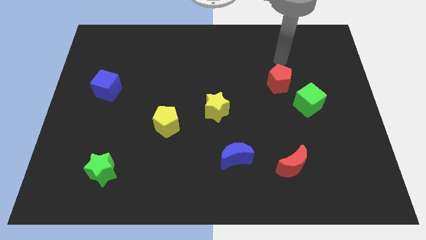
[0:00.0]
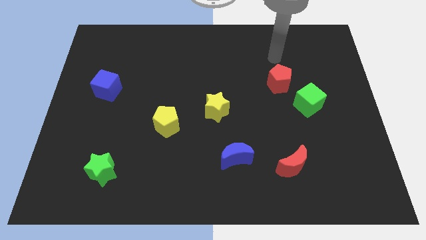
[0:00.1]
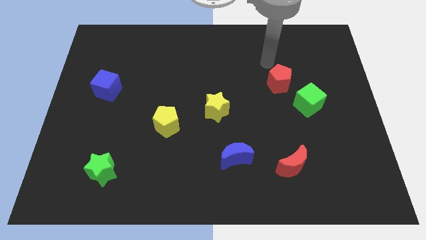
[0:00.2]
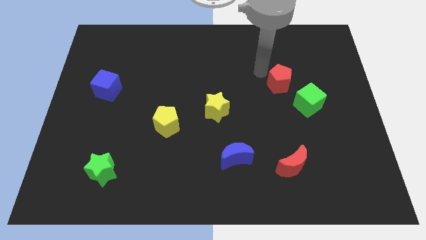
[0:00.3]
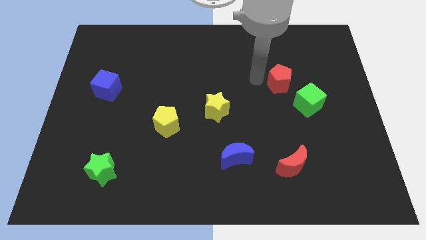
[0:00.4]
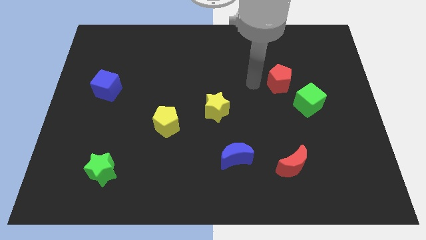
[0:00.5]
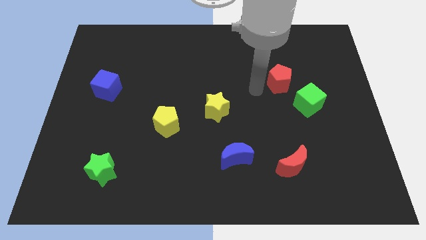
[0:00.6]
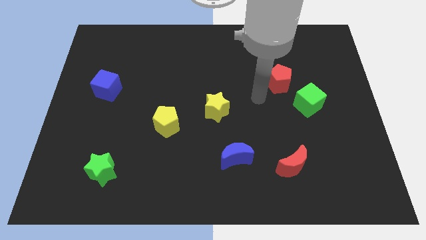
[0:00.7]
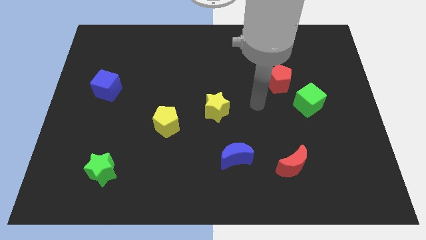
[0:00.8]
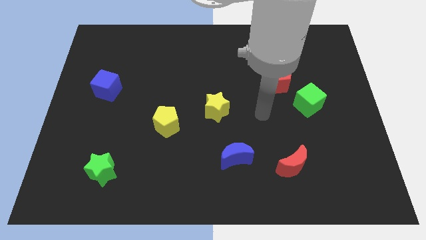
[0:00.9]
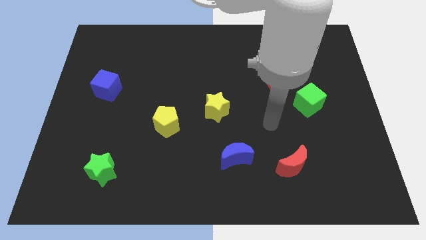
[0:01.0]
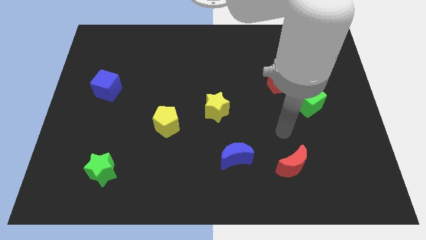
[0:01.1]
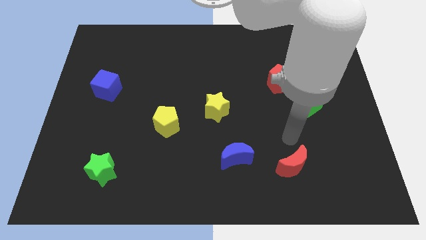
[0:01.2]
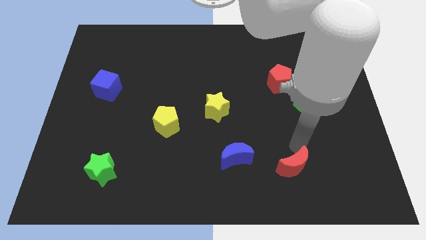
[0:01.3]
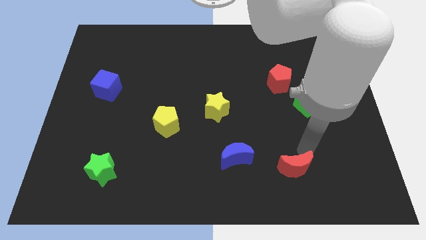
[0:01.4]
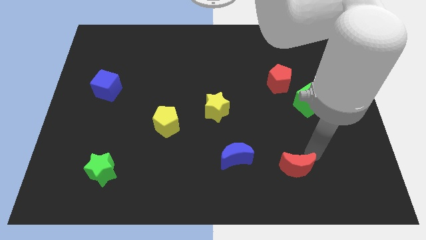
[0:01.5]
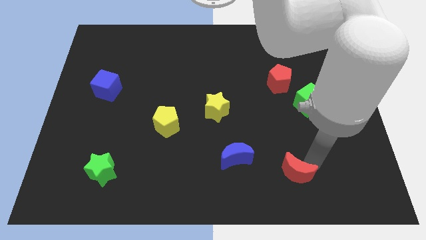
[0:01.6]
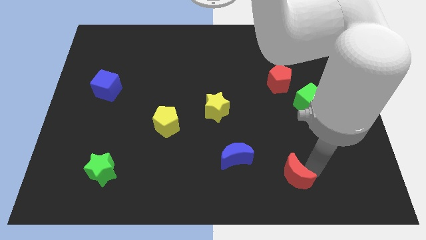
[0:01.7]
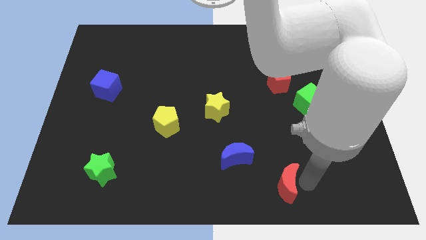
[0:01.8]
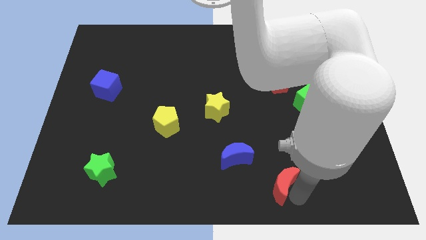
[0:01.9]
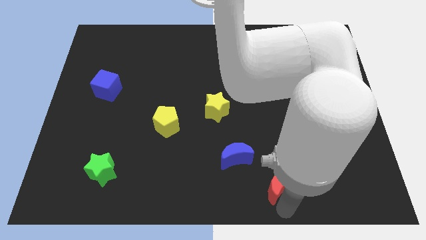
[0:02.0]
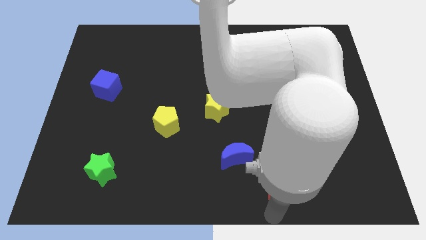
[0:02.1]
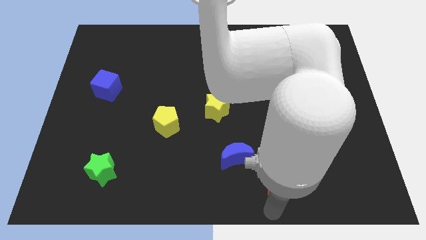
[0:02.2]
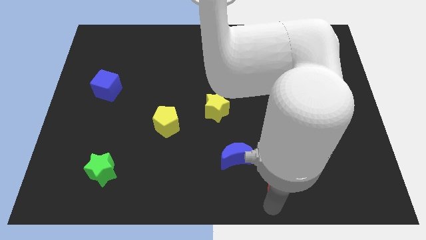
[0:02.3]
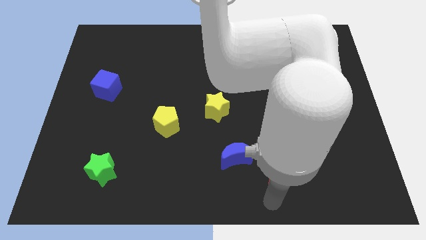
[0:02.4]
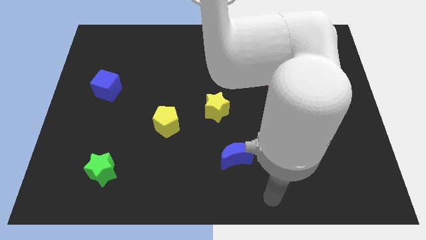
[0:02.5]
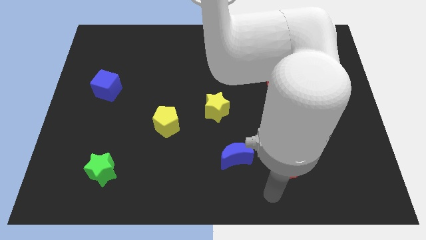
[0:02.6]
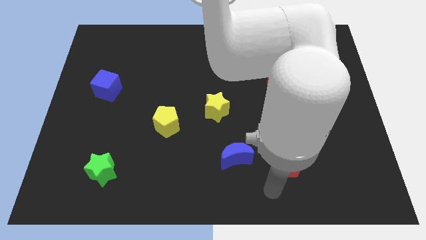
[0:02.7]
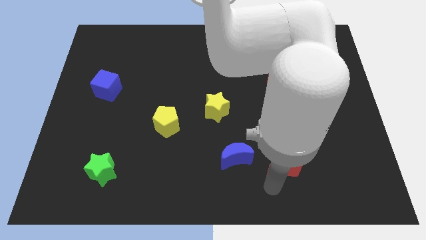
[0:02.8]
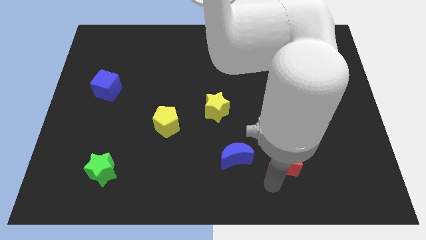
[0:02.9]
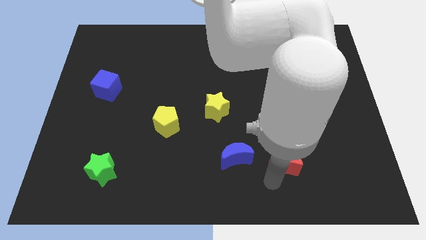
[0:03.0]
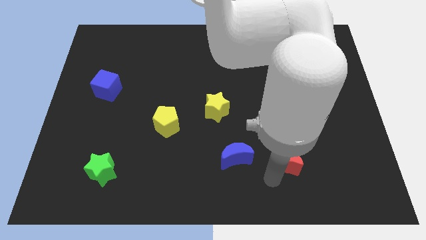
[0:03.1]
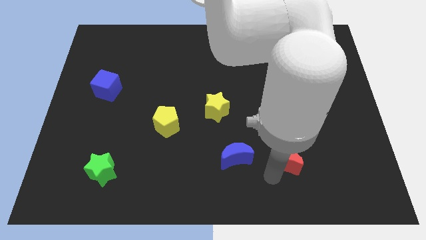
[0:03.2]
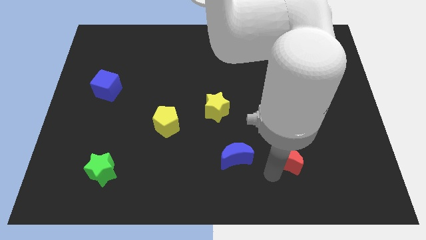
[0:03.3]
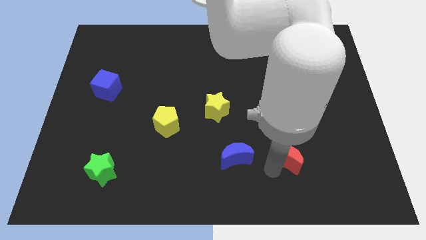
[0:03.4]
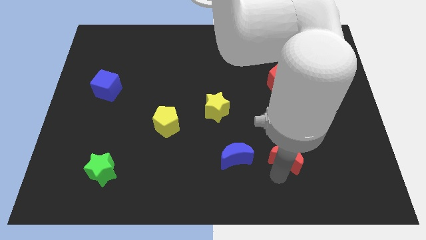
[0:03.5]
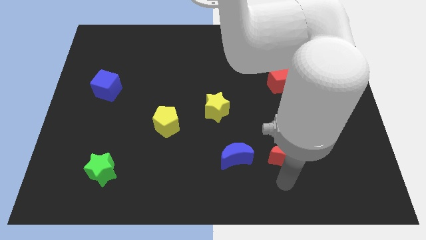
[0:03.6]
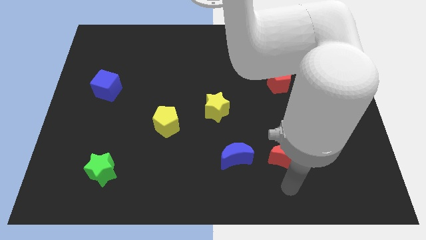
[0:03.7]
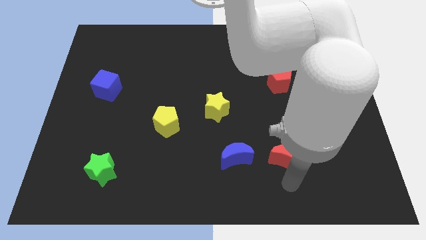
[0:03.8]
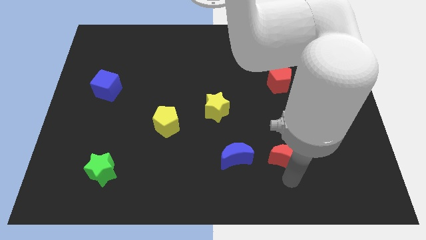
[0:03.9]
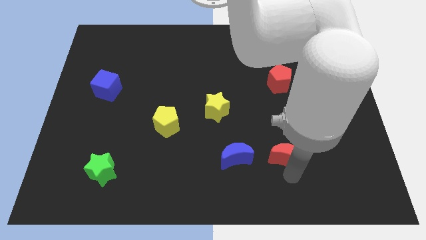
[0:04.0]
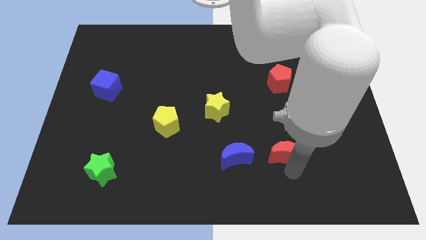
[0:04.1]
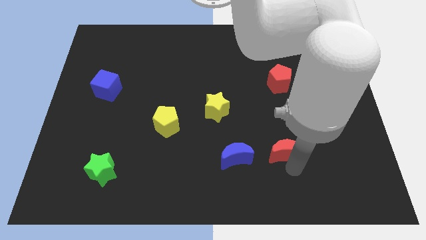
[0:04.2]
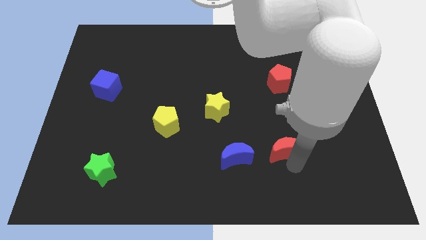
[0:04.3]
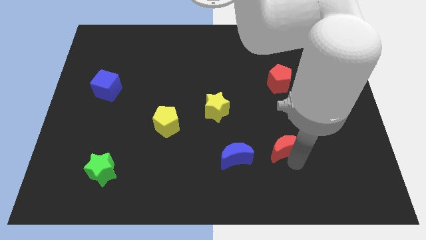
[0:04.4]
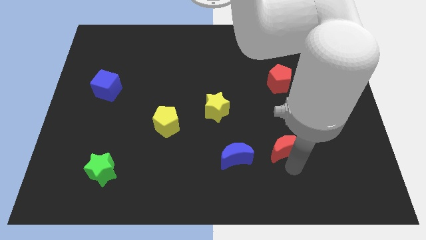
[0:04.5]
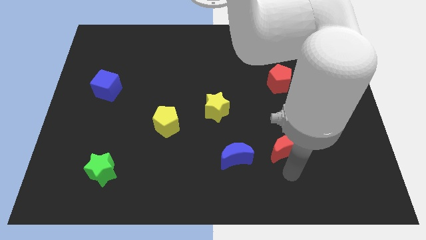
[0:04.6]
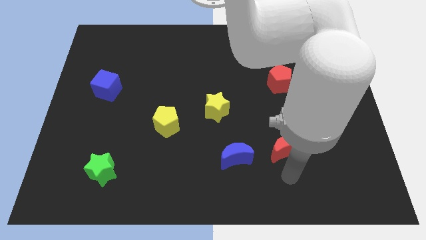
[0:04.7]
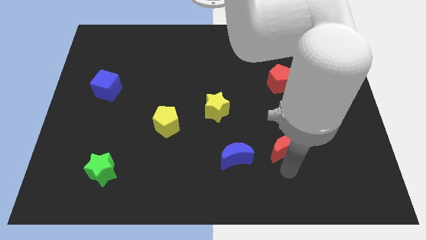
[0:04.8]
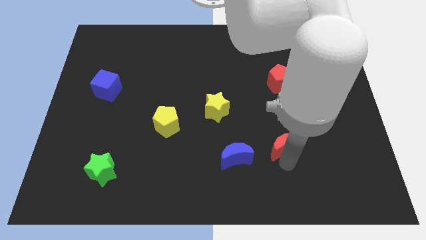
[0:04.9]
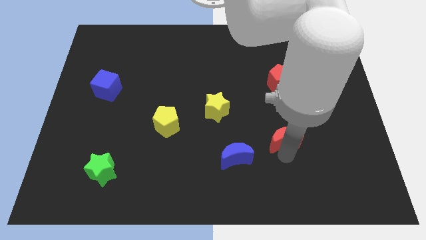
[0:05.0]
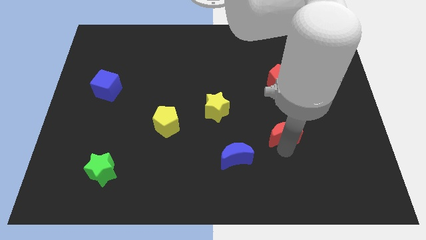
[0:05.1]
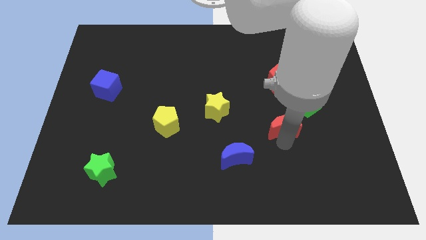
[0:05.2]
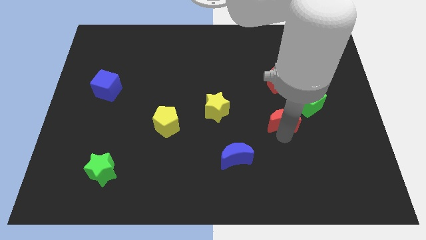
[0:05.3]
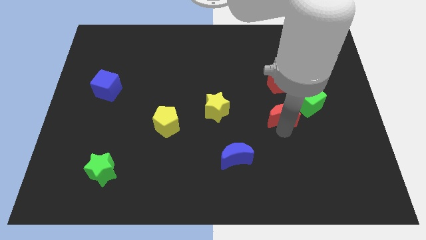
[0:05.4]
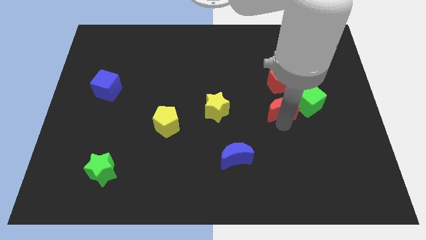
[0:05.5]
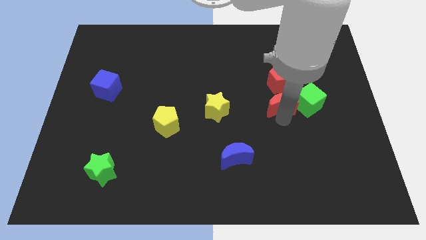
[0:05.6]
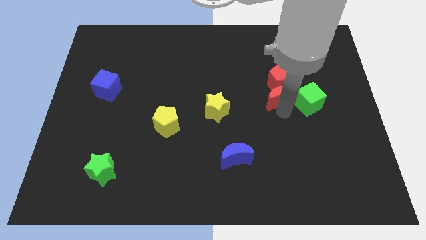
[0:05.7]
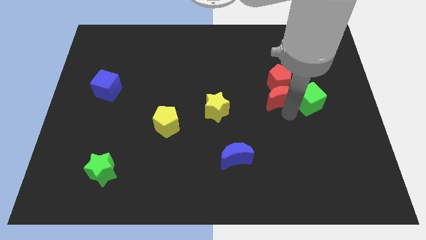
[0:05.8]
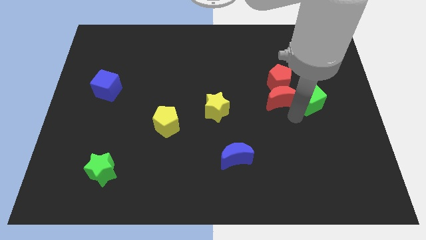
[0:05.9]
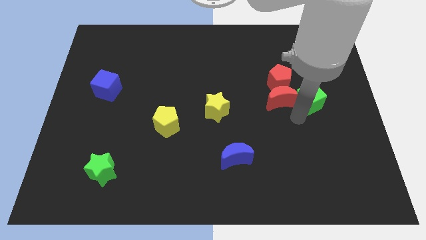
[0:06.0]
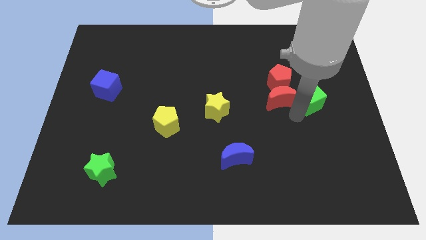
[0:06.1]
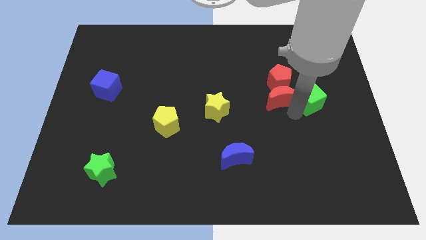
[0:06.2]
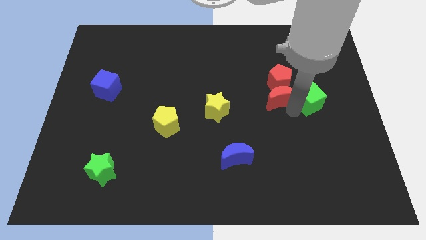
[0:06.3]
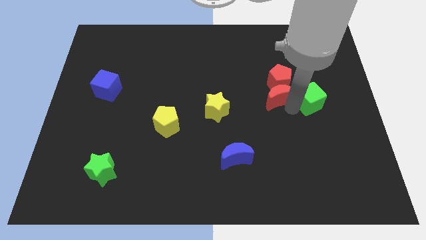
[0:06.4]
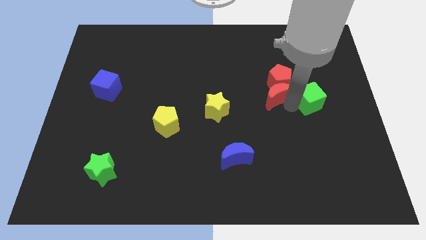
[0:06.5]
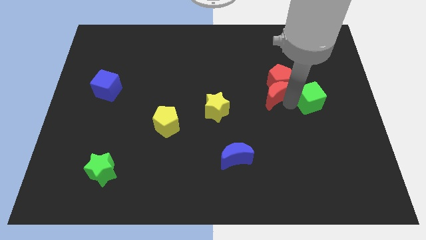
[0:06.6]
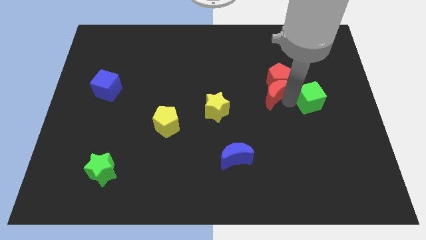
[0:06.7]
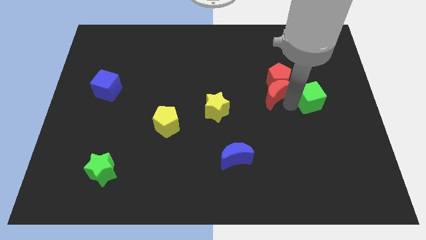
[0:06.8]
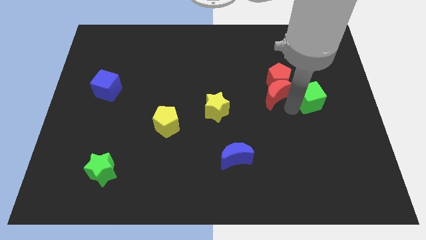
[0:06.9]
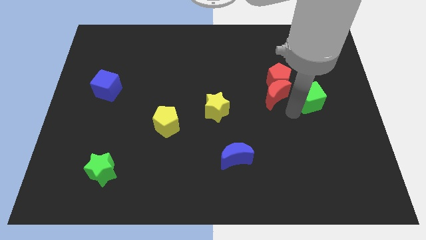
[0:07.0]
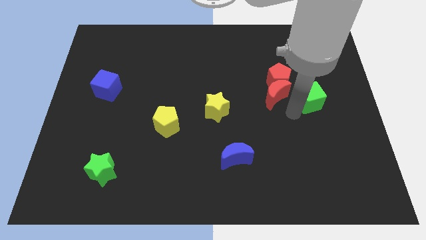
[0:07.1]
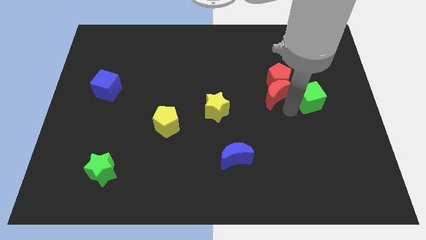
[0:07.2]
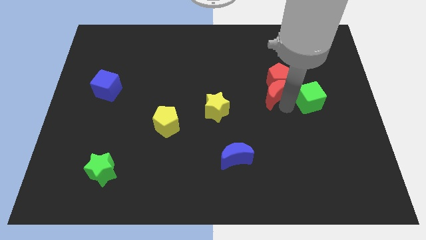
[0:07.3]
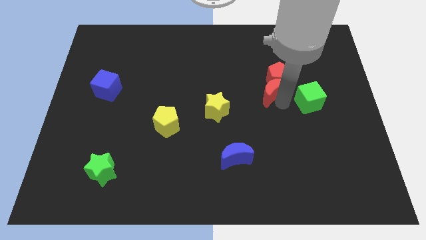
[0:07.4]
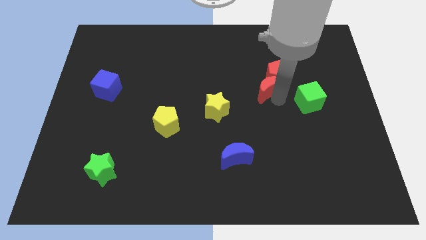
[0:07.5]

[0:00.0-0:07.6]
push the red moon up

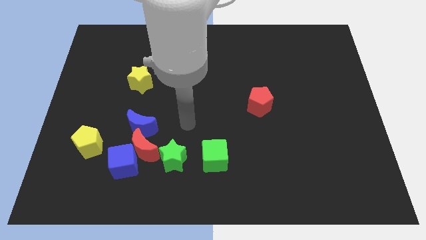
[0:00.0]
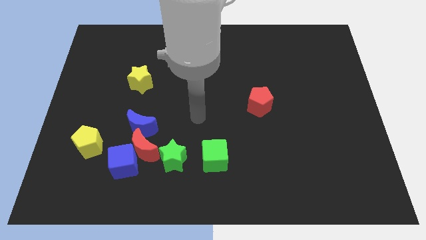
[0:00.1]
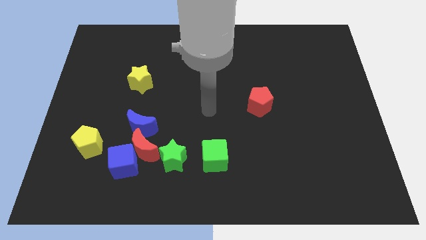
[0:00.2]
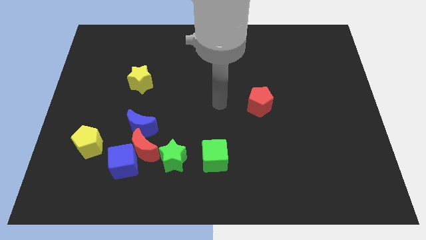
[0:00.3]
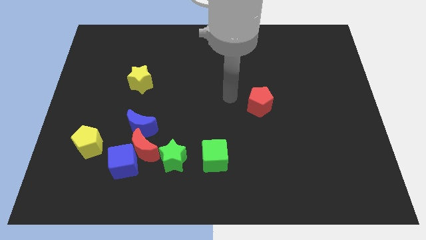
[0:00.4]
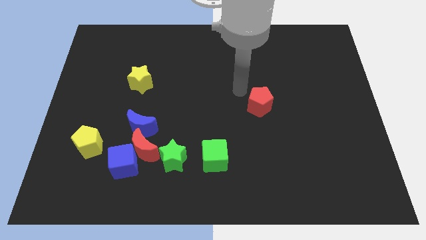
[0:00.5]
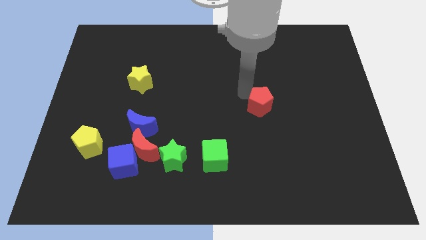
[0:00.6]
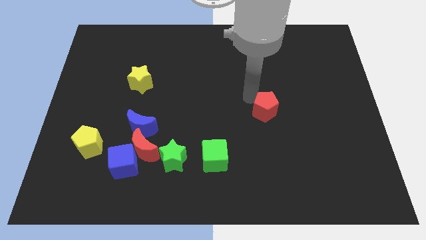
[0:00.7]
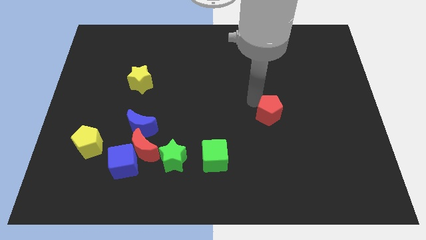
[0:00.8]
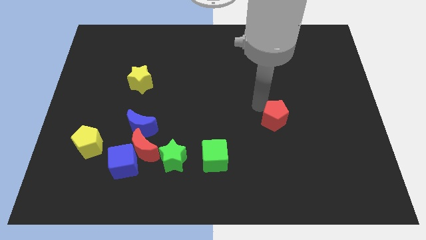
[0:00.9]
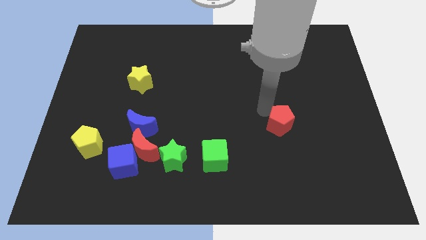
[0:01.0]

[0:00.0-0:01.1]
push the red pentagon downwards and then to the right a bit
